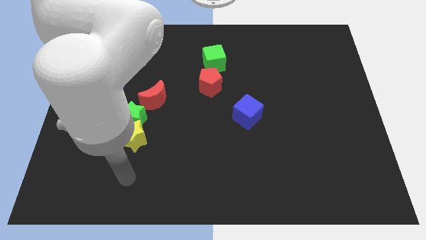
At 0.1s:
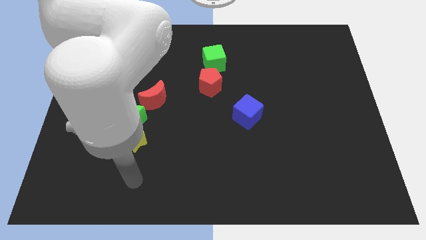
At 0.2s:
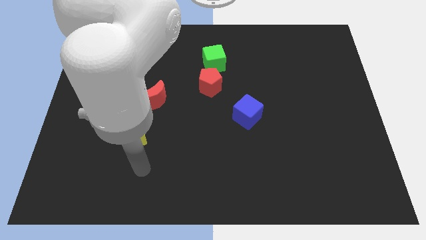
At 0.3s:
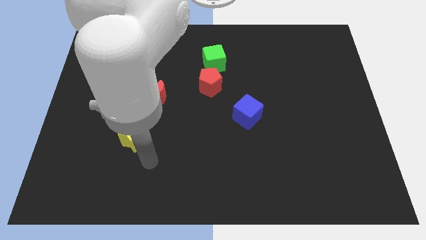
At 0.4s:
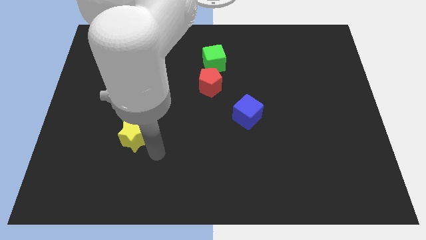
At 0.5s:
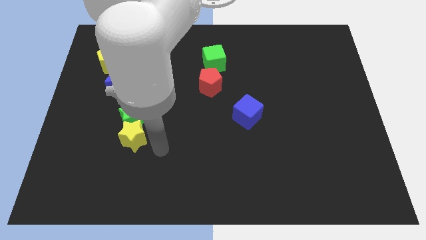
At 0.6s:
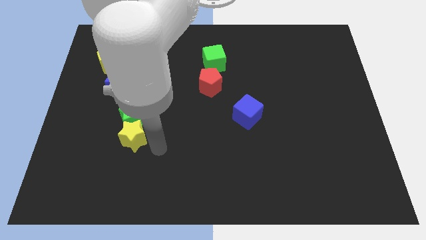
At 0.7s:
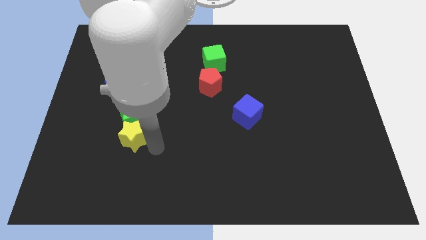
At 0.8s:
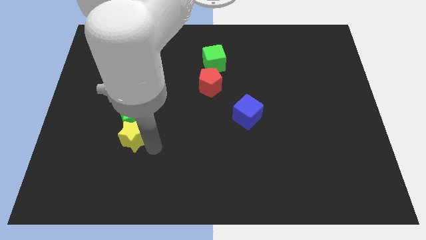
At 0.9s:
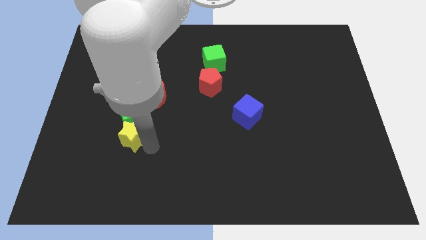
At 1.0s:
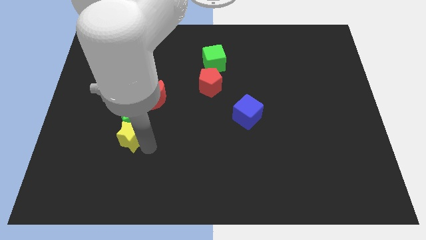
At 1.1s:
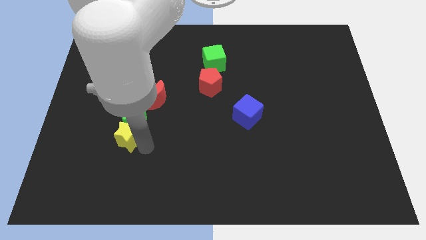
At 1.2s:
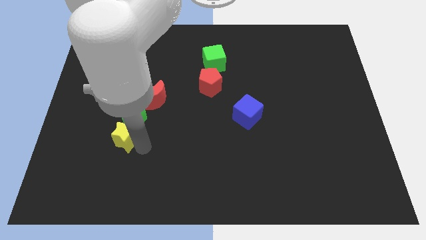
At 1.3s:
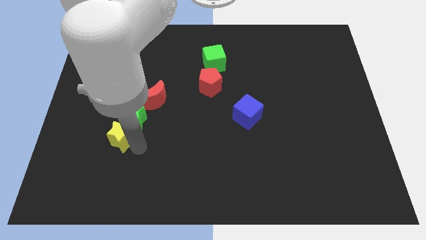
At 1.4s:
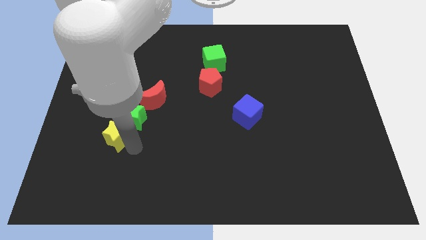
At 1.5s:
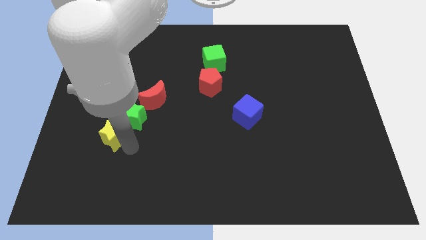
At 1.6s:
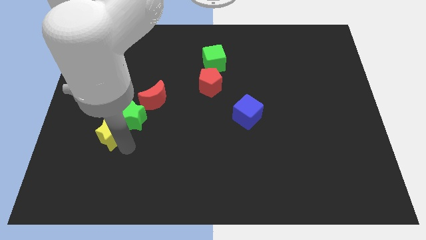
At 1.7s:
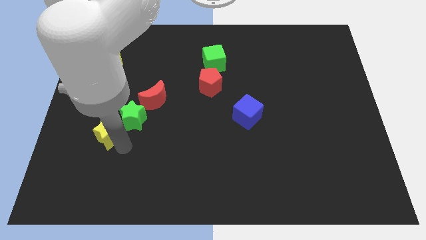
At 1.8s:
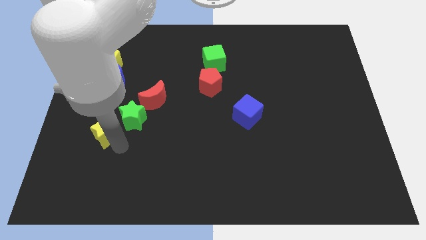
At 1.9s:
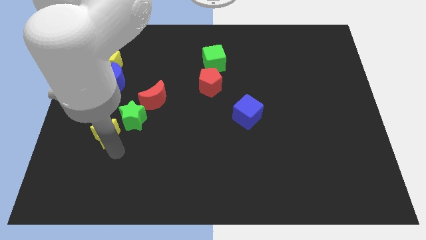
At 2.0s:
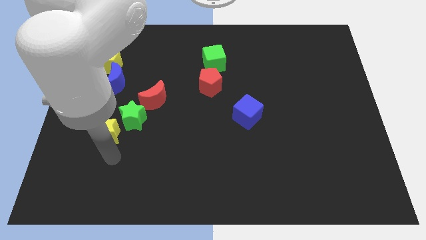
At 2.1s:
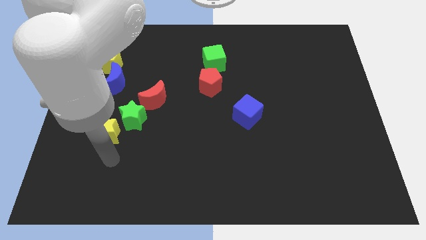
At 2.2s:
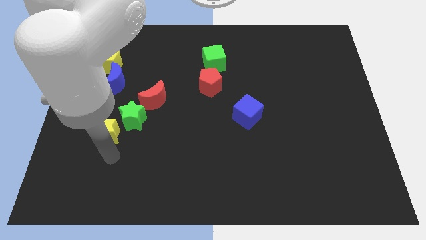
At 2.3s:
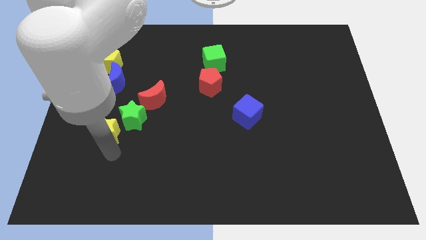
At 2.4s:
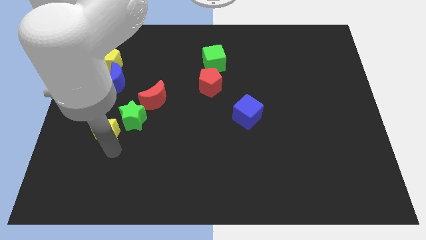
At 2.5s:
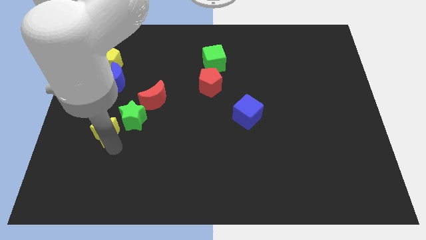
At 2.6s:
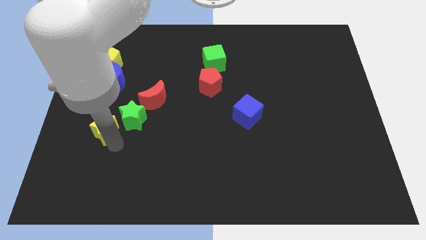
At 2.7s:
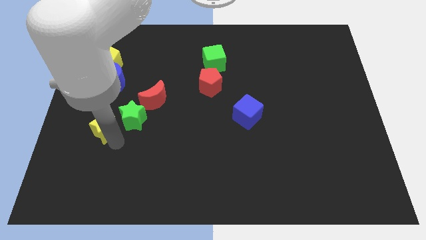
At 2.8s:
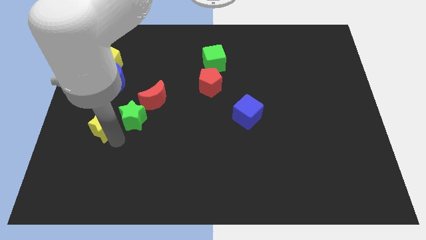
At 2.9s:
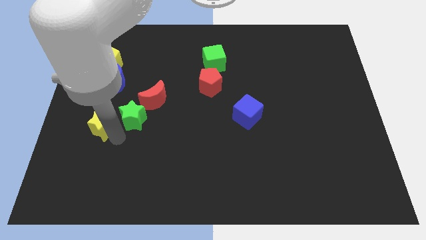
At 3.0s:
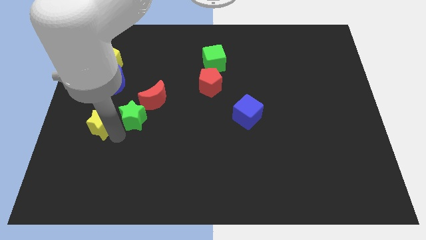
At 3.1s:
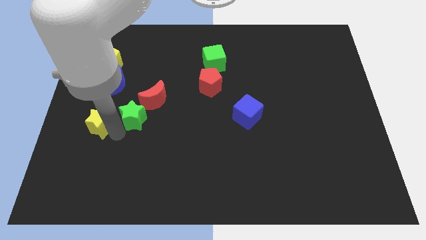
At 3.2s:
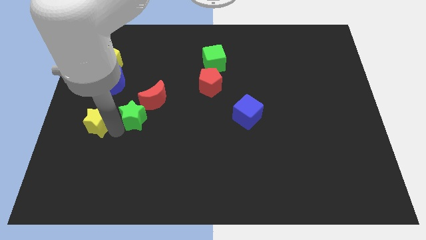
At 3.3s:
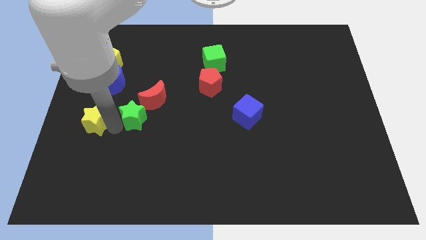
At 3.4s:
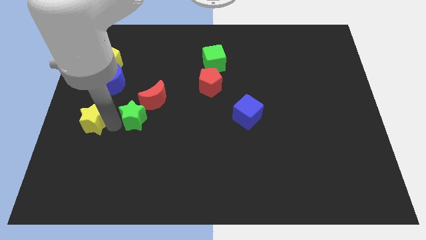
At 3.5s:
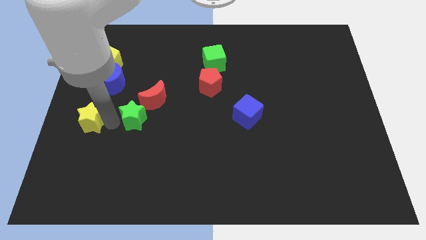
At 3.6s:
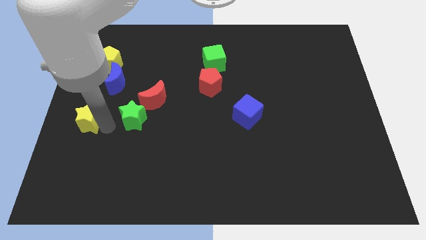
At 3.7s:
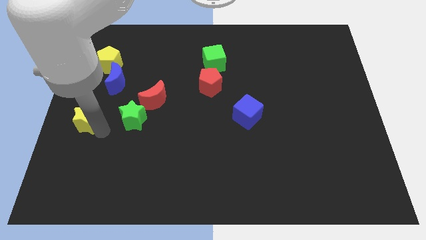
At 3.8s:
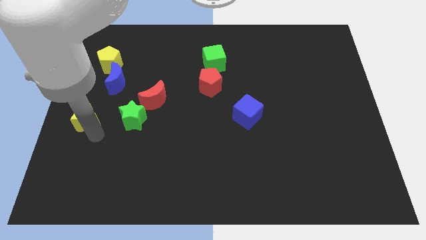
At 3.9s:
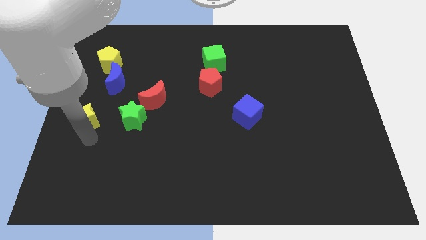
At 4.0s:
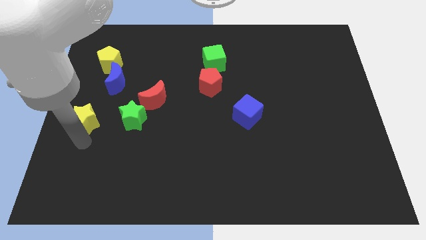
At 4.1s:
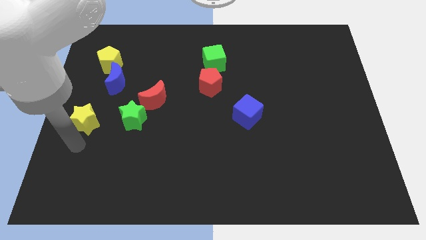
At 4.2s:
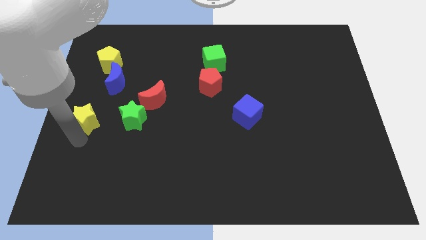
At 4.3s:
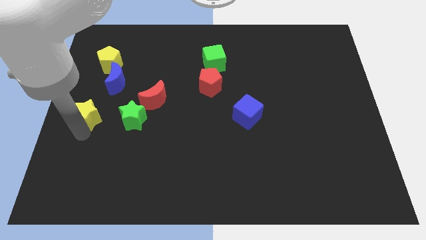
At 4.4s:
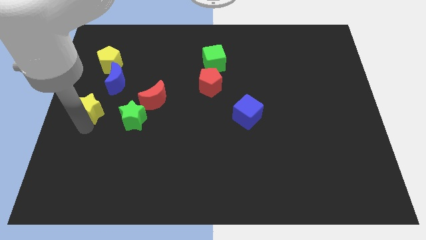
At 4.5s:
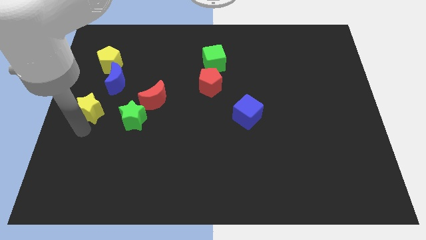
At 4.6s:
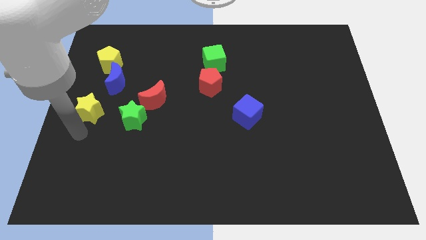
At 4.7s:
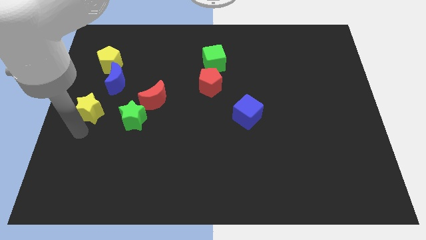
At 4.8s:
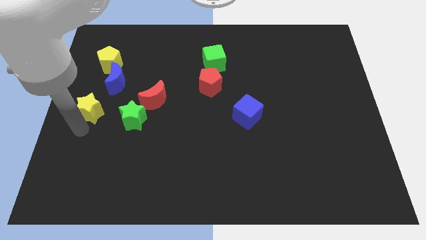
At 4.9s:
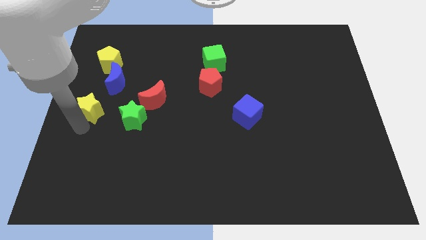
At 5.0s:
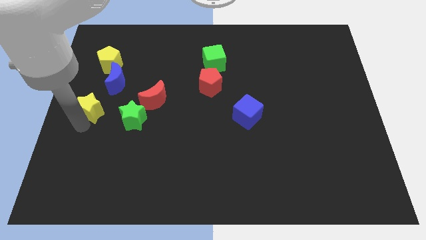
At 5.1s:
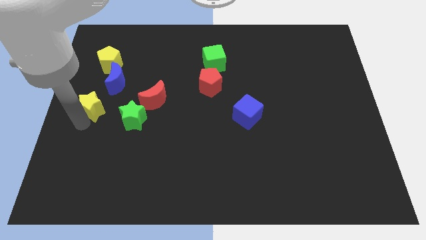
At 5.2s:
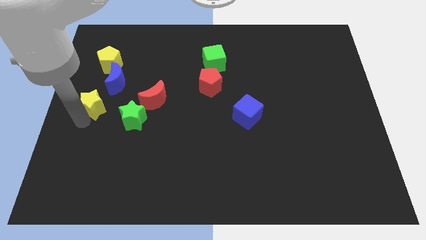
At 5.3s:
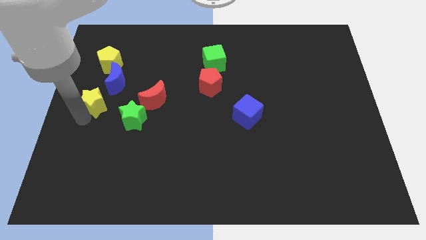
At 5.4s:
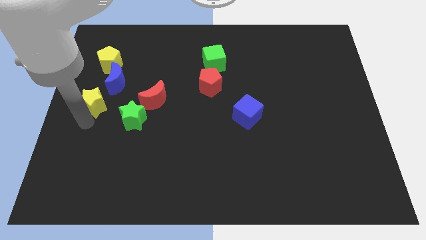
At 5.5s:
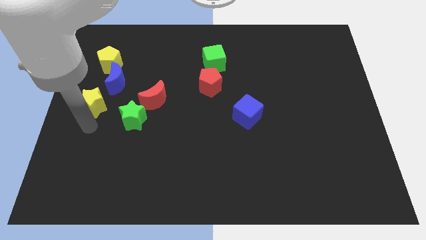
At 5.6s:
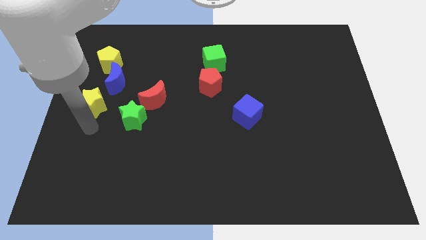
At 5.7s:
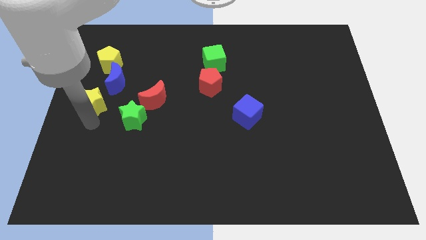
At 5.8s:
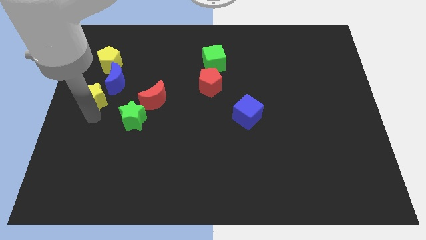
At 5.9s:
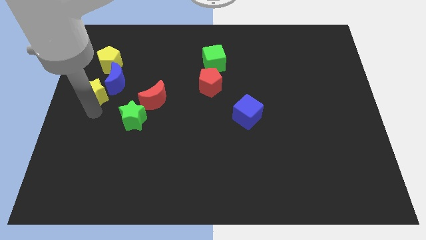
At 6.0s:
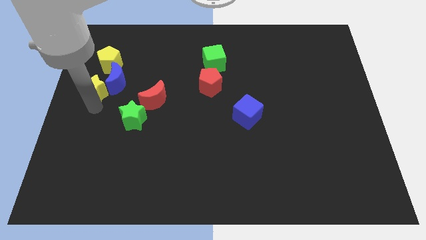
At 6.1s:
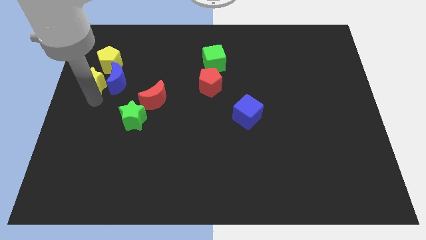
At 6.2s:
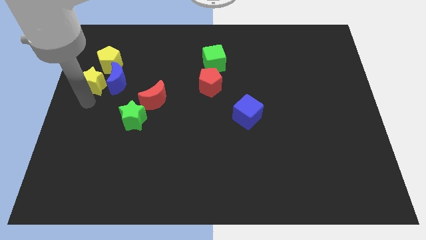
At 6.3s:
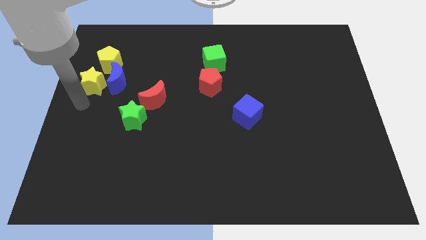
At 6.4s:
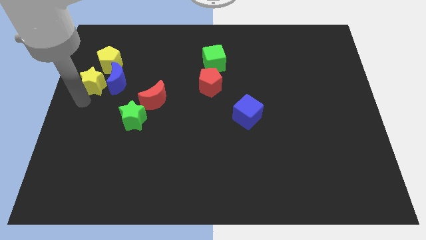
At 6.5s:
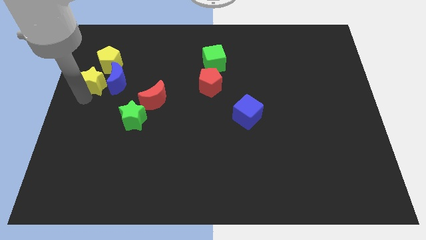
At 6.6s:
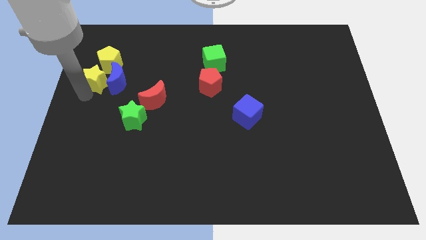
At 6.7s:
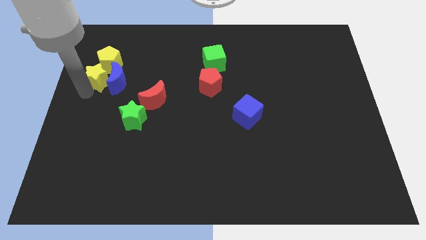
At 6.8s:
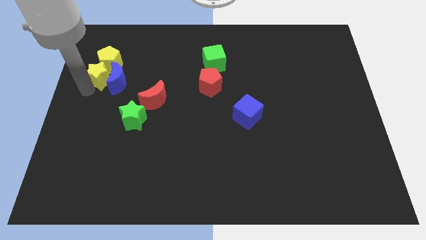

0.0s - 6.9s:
push the yellow star close to the yellow pentagon
